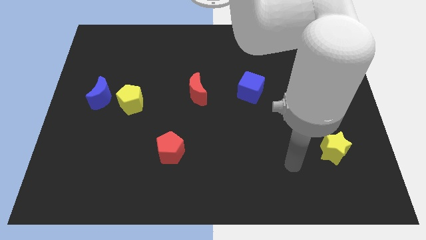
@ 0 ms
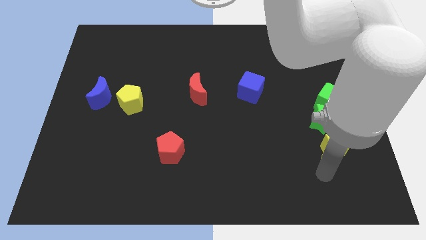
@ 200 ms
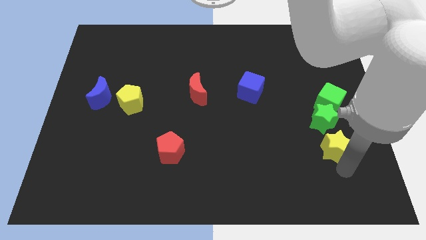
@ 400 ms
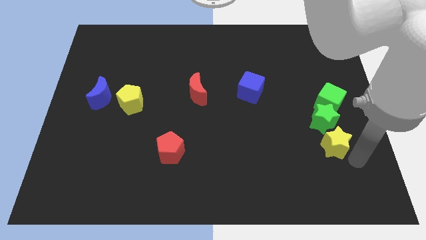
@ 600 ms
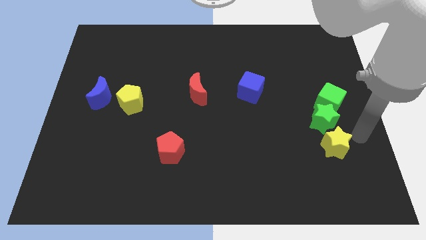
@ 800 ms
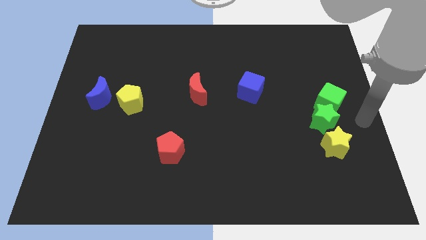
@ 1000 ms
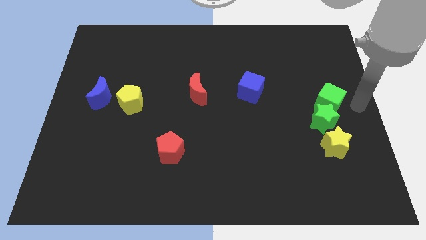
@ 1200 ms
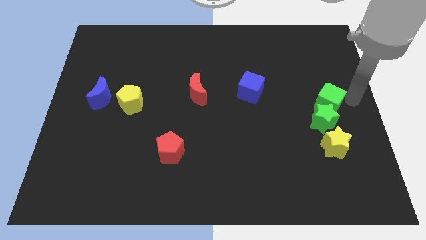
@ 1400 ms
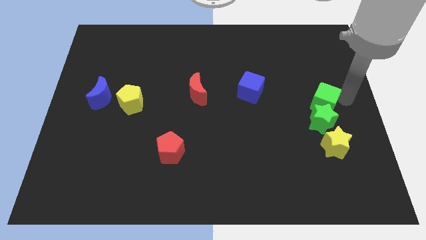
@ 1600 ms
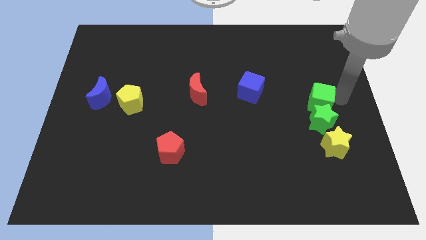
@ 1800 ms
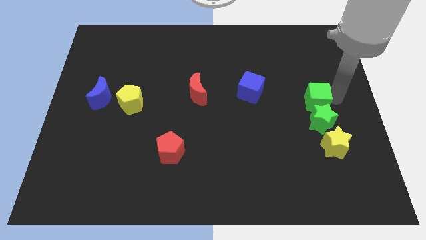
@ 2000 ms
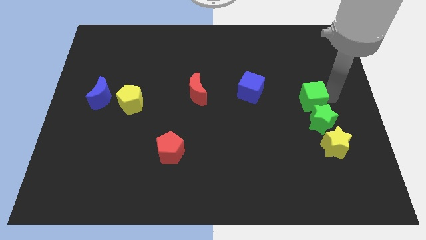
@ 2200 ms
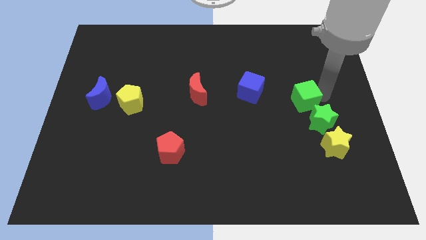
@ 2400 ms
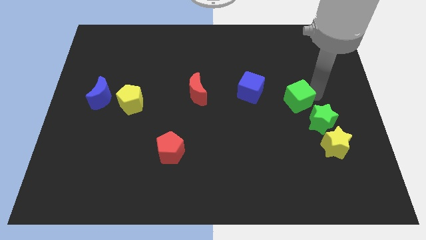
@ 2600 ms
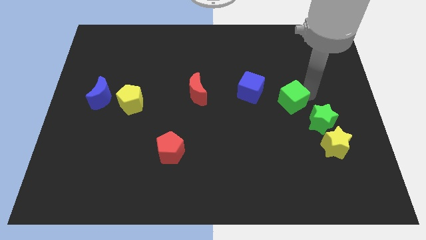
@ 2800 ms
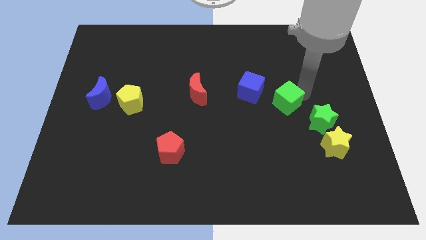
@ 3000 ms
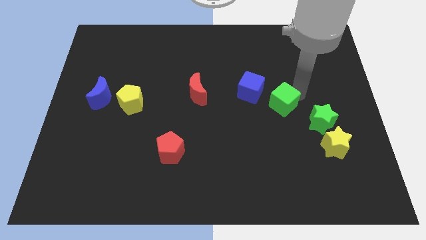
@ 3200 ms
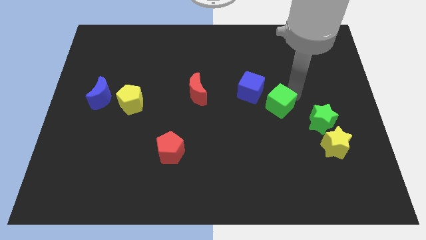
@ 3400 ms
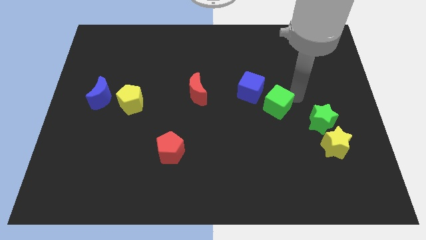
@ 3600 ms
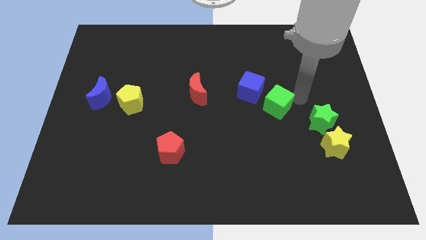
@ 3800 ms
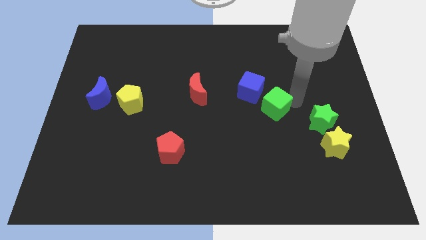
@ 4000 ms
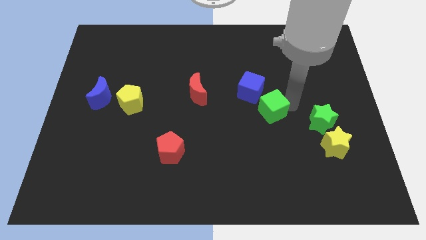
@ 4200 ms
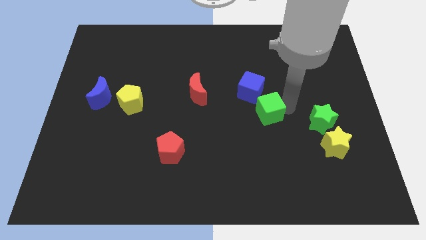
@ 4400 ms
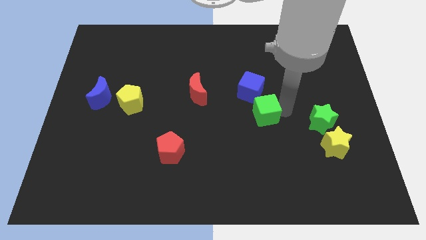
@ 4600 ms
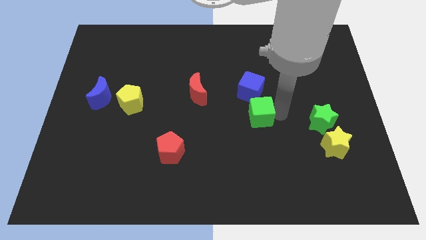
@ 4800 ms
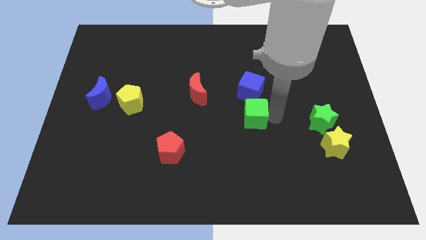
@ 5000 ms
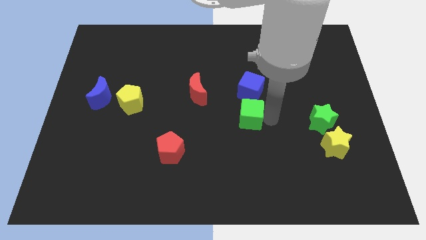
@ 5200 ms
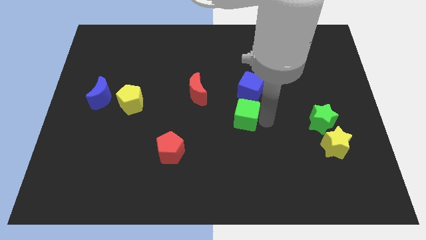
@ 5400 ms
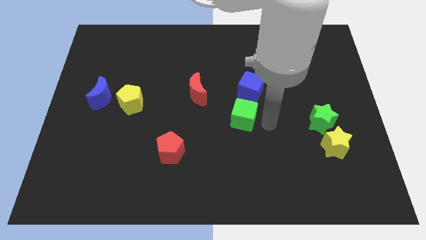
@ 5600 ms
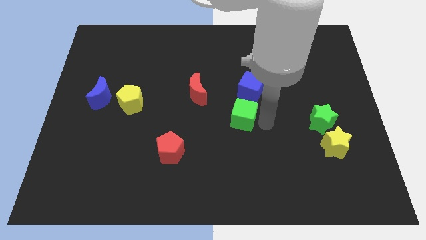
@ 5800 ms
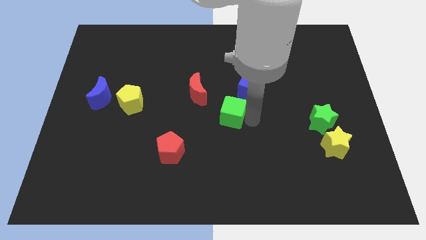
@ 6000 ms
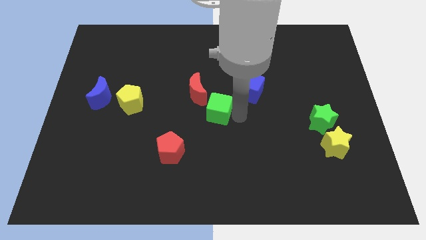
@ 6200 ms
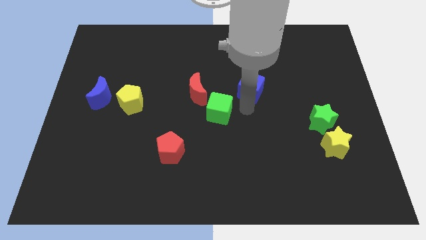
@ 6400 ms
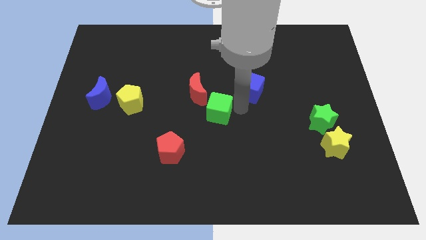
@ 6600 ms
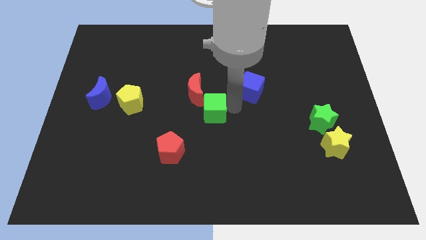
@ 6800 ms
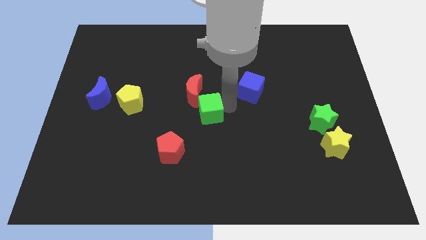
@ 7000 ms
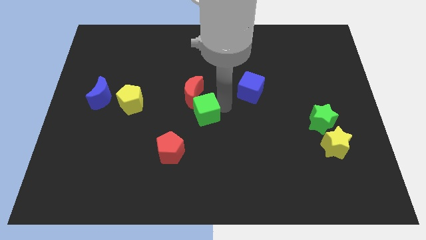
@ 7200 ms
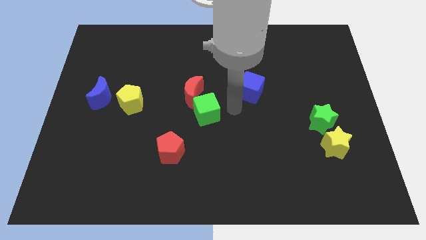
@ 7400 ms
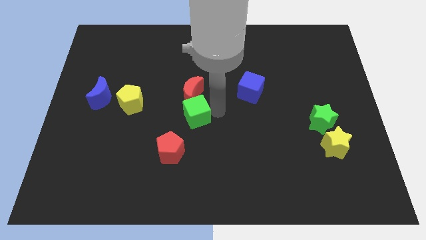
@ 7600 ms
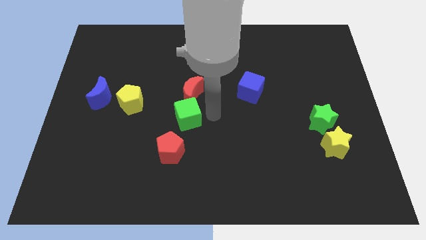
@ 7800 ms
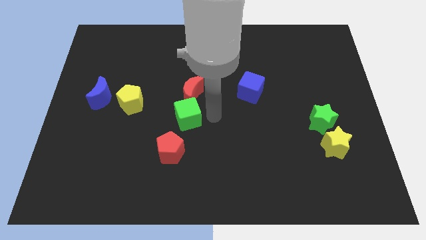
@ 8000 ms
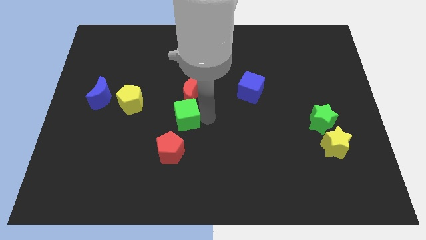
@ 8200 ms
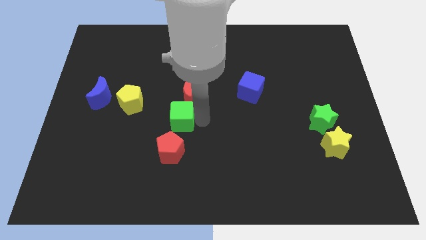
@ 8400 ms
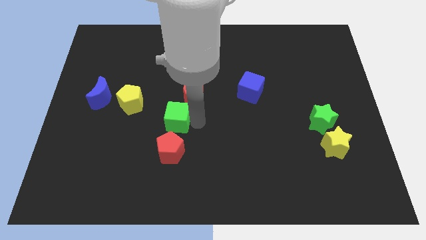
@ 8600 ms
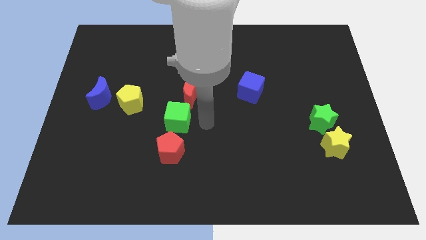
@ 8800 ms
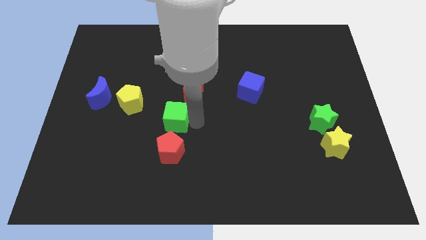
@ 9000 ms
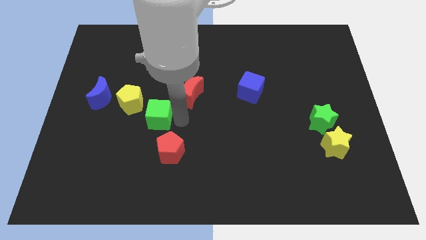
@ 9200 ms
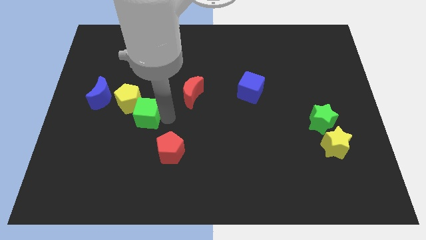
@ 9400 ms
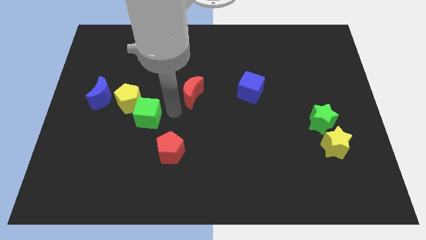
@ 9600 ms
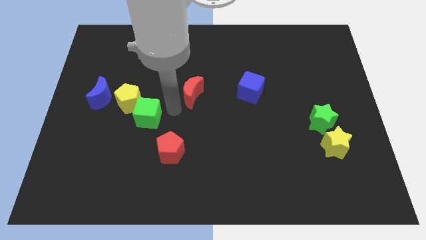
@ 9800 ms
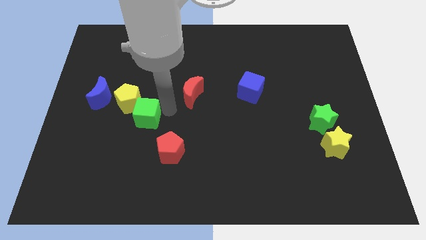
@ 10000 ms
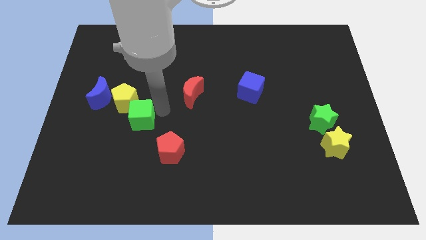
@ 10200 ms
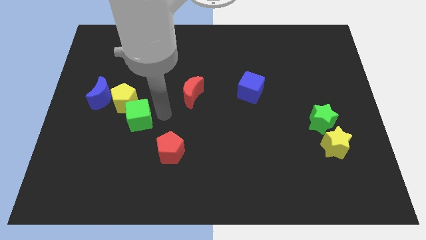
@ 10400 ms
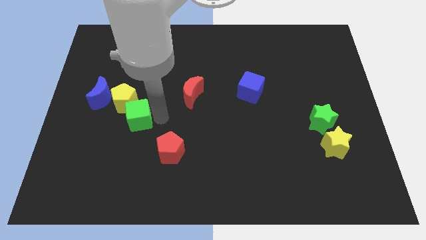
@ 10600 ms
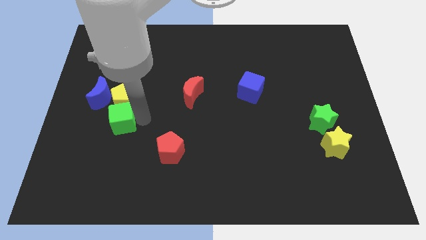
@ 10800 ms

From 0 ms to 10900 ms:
push the green cube to the bottom left side of the yellow pentagon

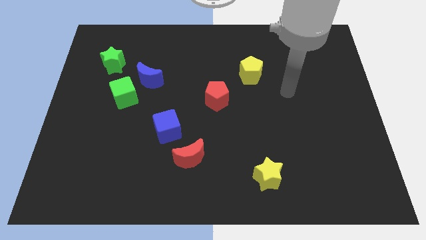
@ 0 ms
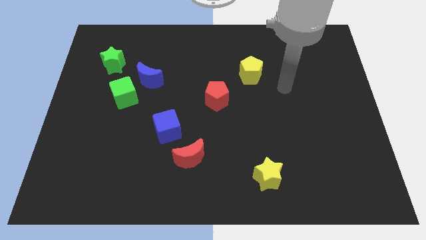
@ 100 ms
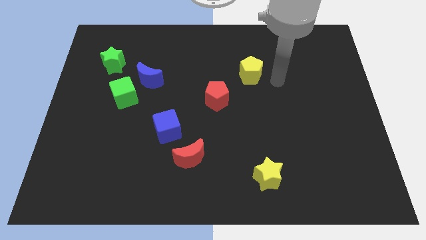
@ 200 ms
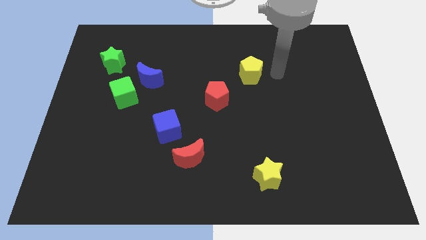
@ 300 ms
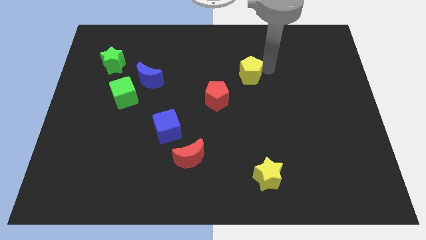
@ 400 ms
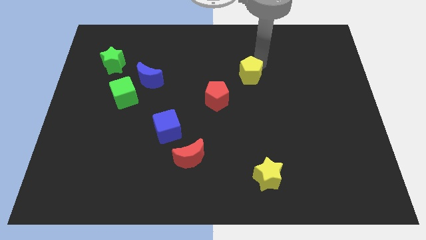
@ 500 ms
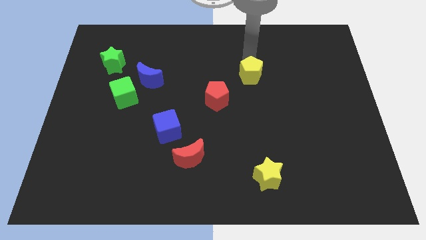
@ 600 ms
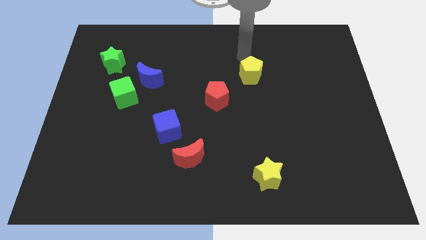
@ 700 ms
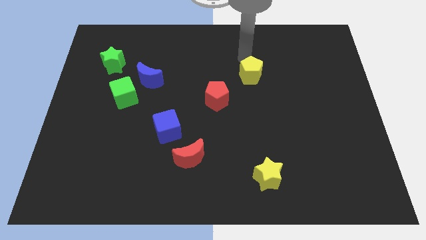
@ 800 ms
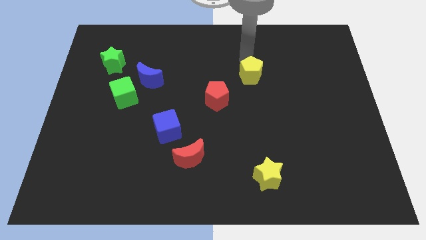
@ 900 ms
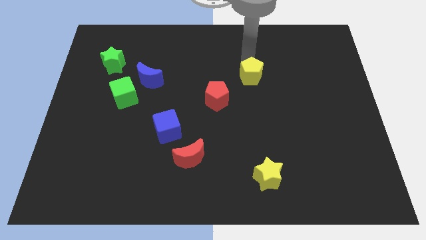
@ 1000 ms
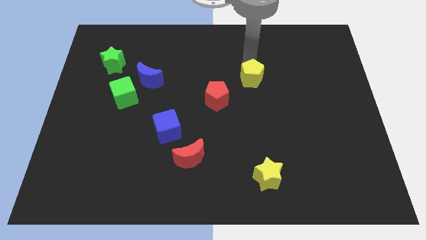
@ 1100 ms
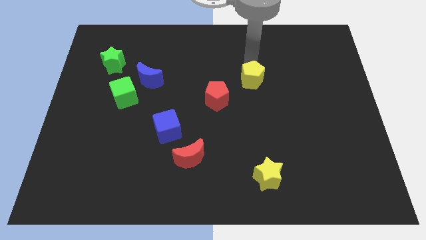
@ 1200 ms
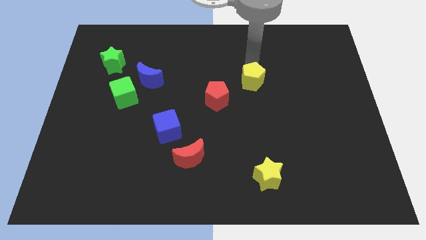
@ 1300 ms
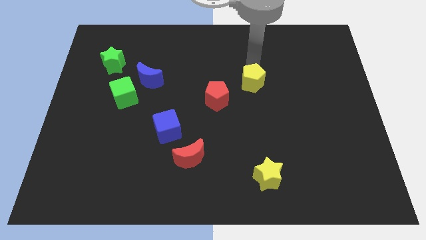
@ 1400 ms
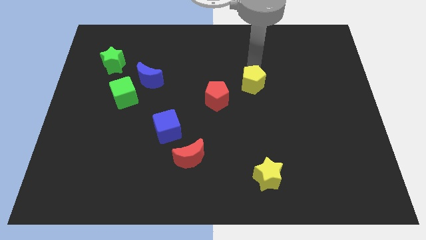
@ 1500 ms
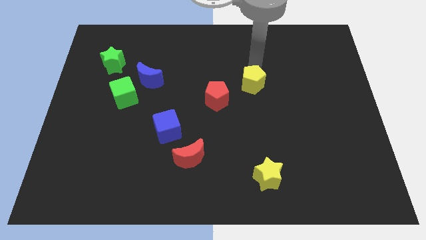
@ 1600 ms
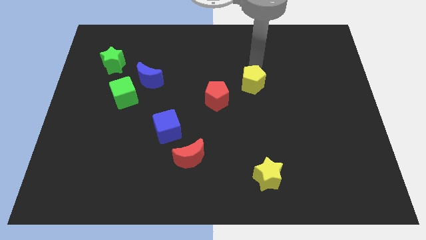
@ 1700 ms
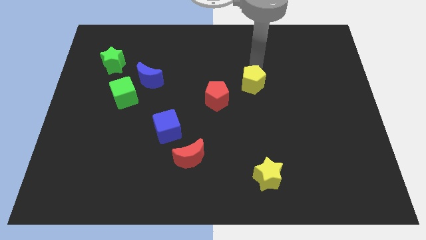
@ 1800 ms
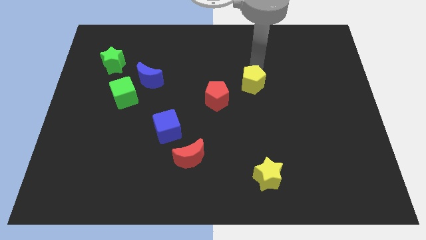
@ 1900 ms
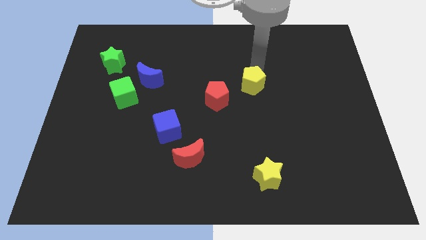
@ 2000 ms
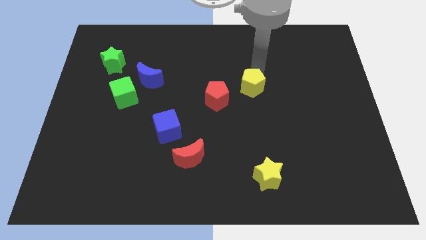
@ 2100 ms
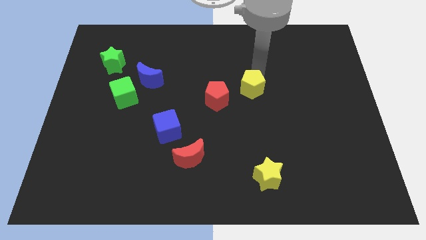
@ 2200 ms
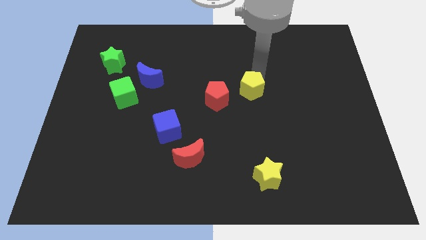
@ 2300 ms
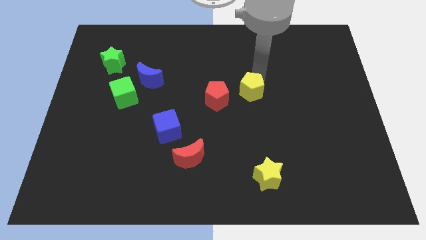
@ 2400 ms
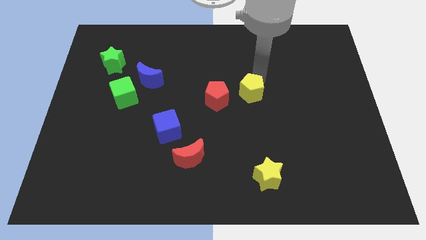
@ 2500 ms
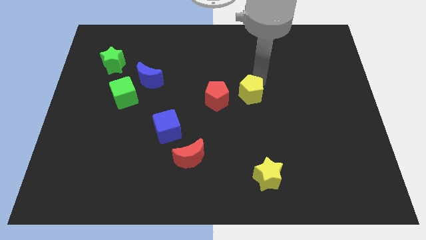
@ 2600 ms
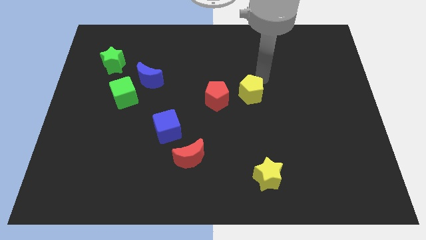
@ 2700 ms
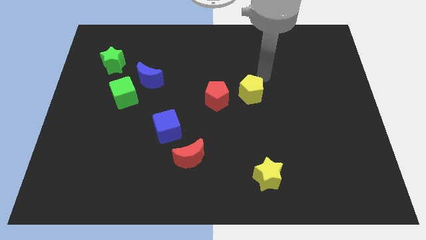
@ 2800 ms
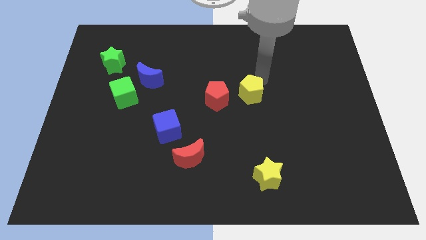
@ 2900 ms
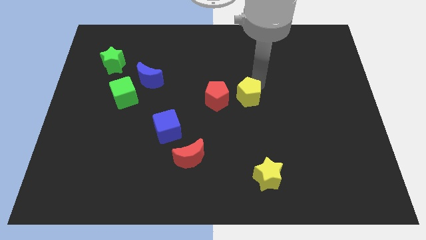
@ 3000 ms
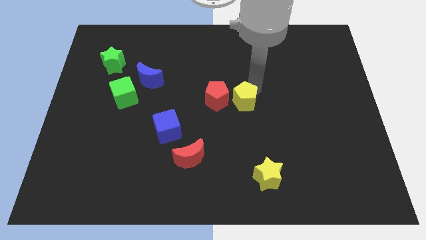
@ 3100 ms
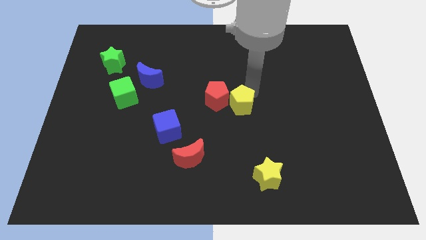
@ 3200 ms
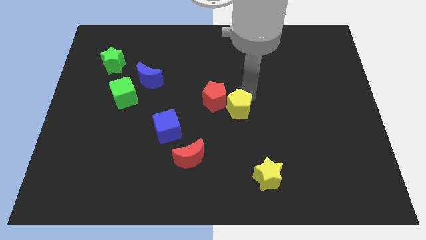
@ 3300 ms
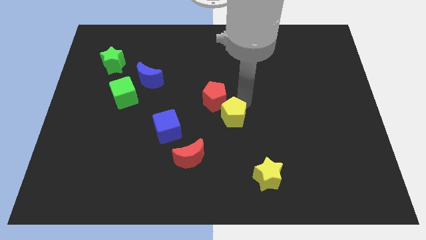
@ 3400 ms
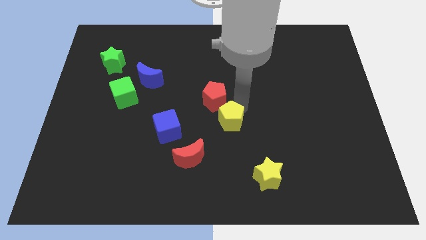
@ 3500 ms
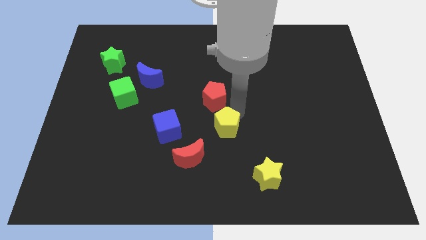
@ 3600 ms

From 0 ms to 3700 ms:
move the yellow pentagon to the top right side of the red moon
